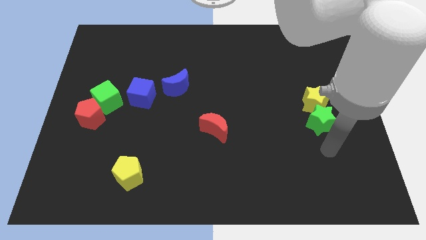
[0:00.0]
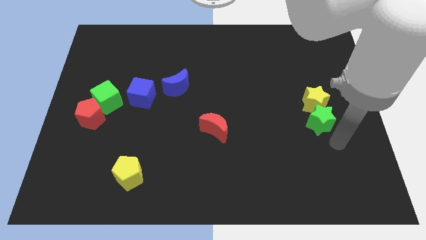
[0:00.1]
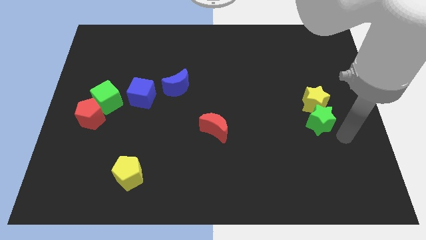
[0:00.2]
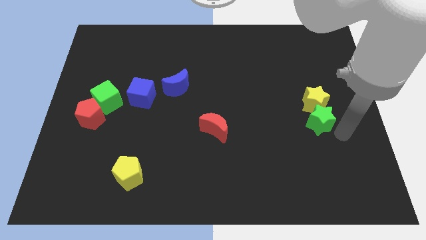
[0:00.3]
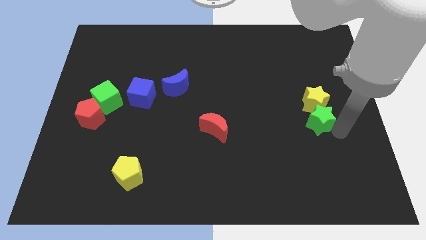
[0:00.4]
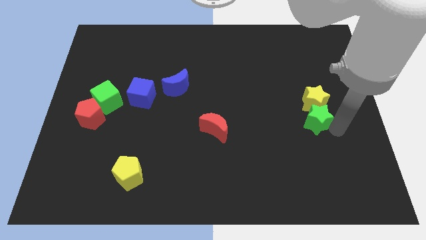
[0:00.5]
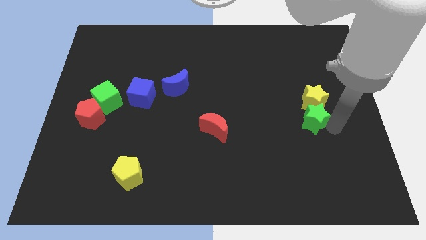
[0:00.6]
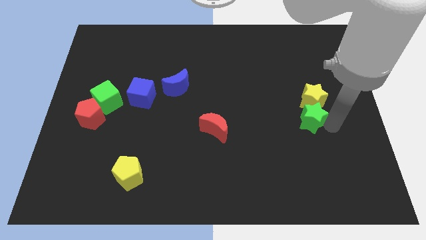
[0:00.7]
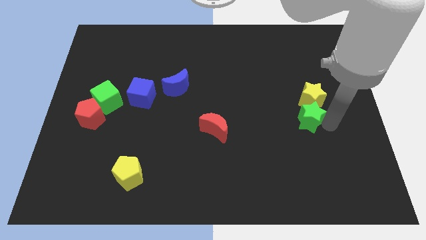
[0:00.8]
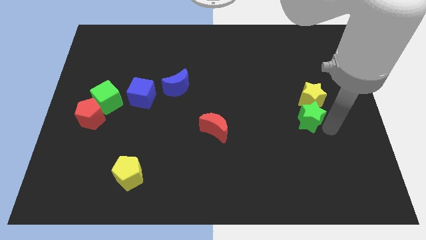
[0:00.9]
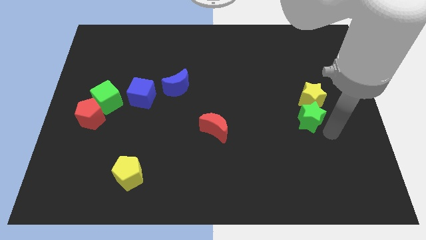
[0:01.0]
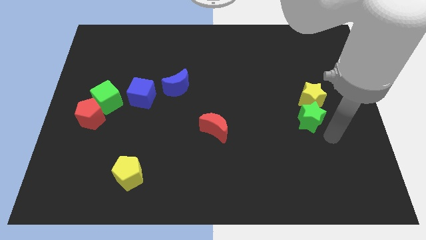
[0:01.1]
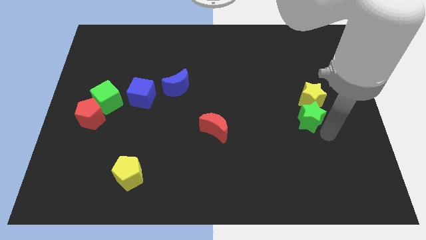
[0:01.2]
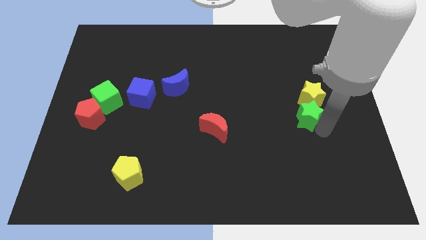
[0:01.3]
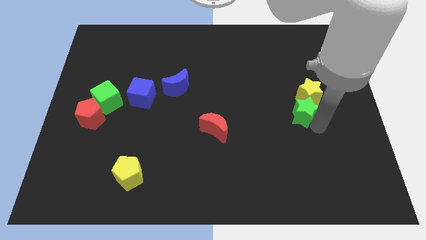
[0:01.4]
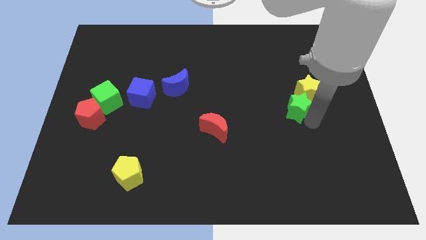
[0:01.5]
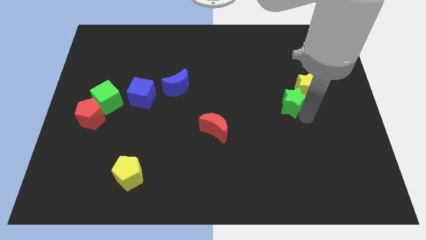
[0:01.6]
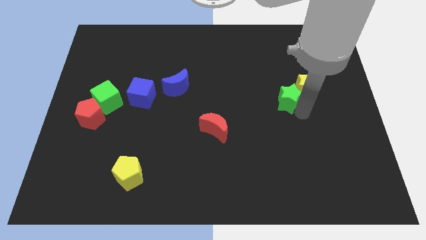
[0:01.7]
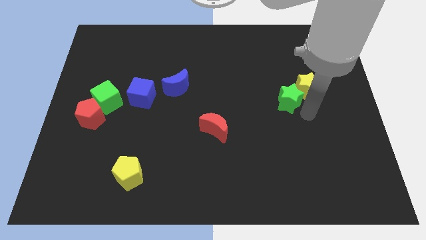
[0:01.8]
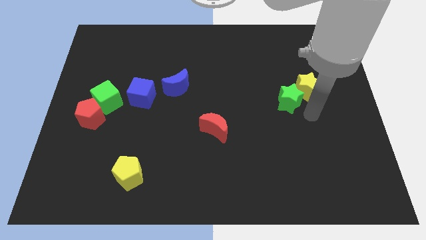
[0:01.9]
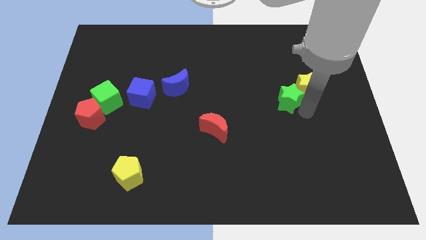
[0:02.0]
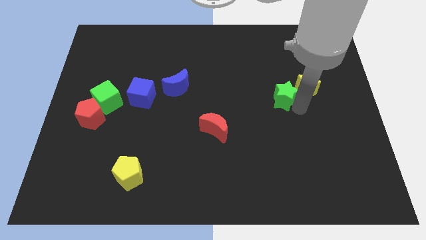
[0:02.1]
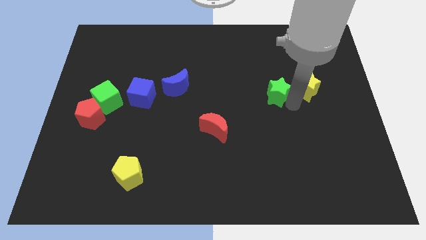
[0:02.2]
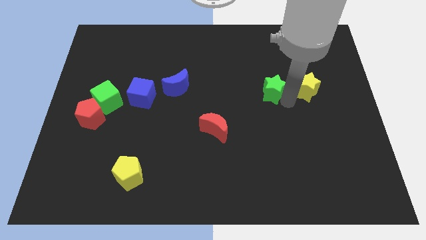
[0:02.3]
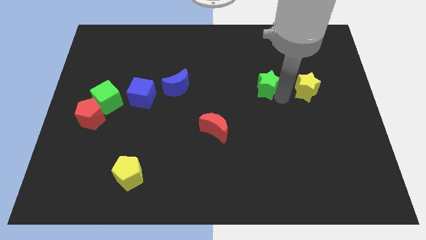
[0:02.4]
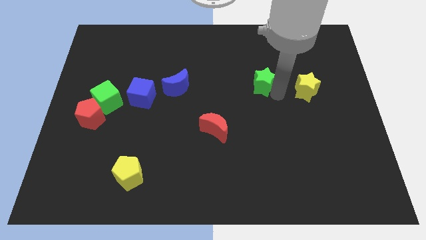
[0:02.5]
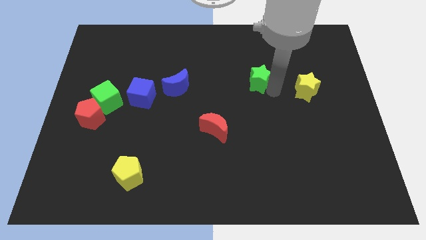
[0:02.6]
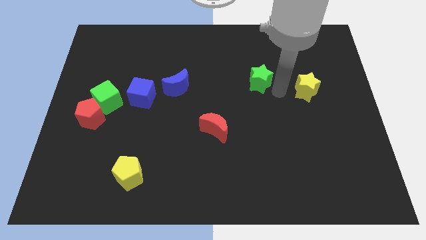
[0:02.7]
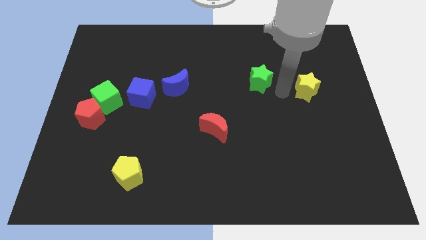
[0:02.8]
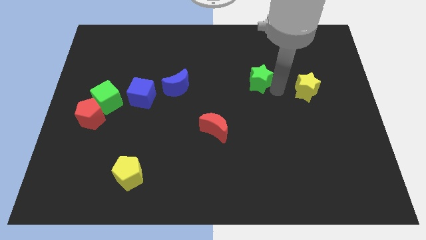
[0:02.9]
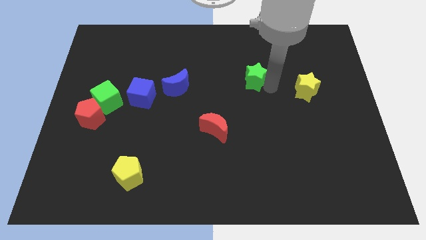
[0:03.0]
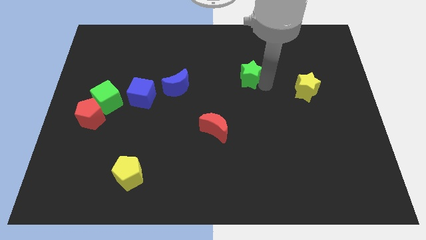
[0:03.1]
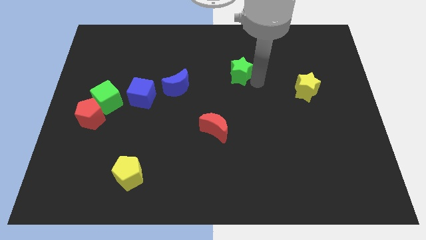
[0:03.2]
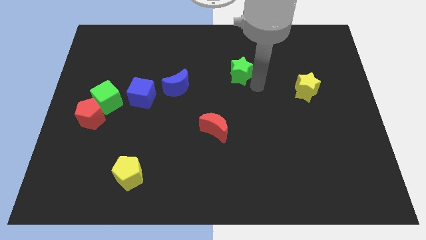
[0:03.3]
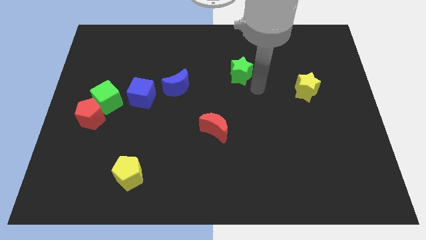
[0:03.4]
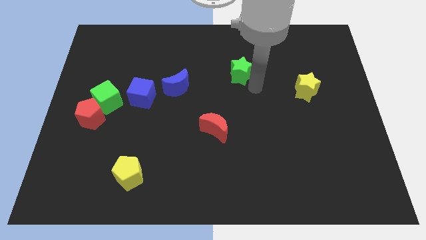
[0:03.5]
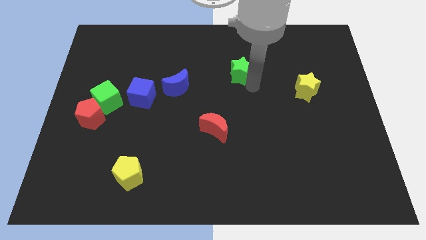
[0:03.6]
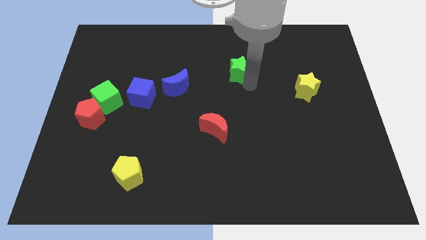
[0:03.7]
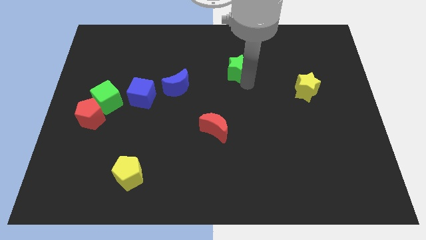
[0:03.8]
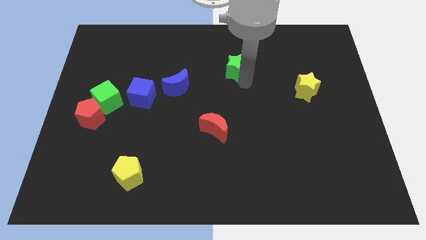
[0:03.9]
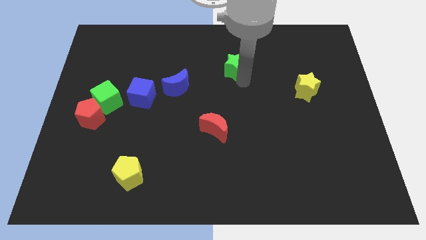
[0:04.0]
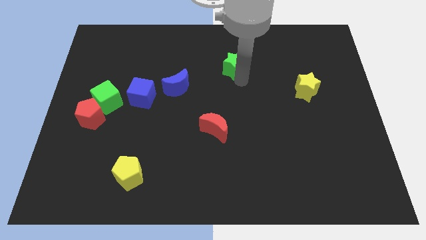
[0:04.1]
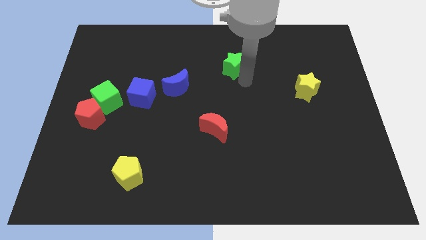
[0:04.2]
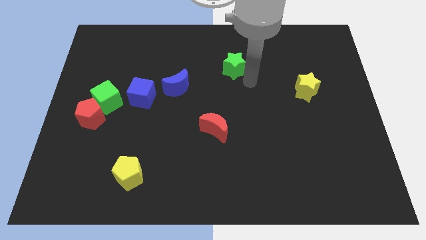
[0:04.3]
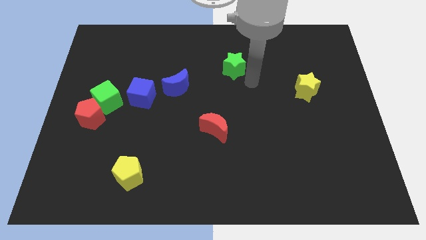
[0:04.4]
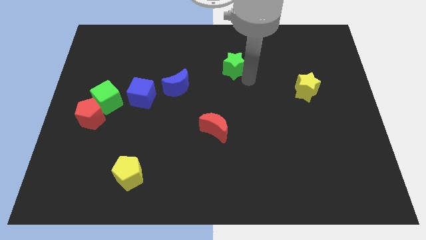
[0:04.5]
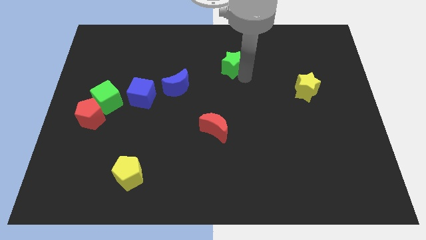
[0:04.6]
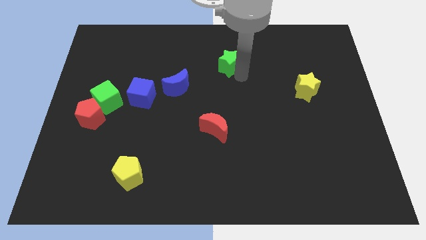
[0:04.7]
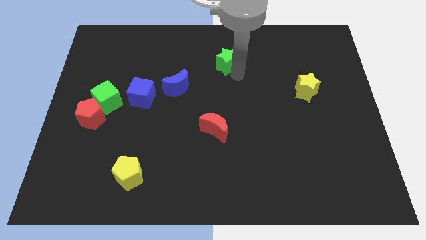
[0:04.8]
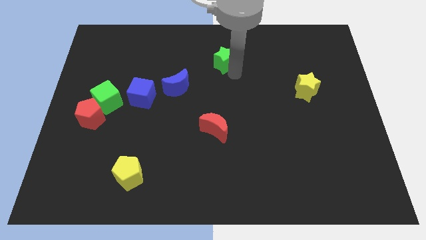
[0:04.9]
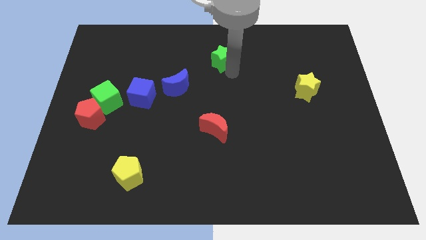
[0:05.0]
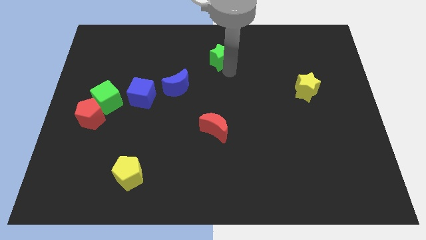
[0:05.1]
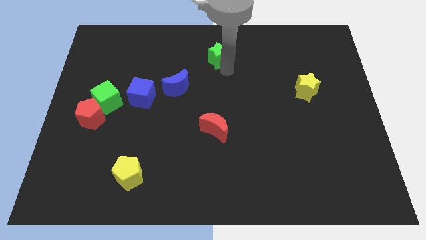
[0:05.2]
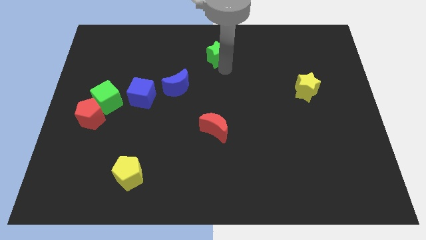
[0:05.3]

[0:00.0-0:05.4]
slide the green star to the top

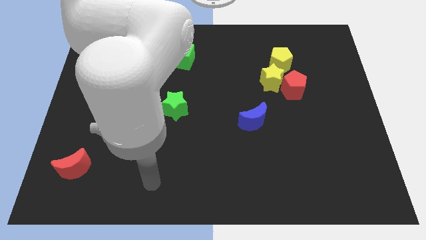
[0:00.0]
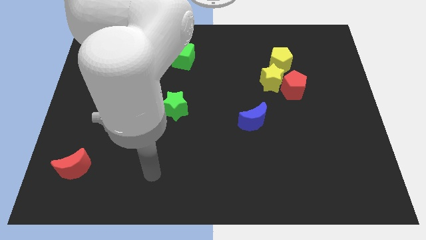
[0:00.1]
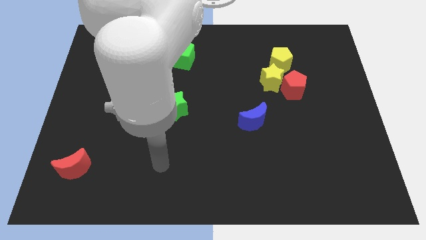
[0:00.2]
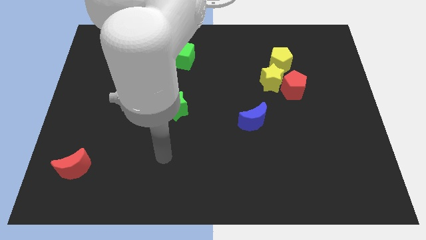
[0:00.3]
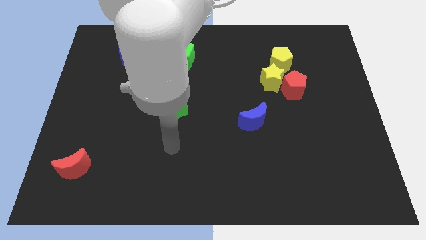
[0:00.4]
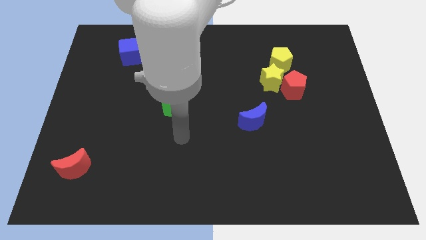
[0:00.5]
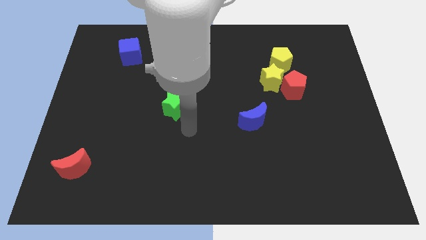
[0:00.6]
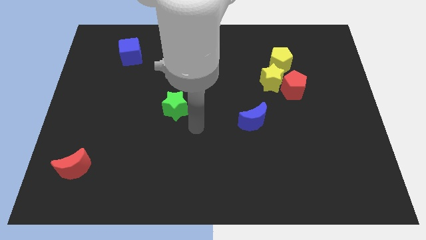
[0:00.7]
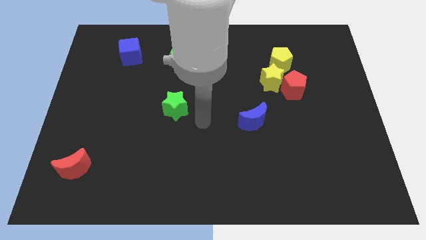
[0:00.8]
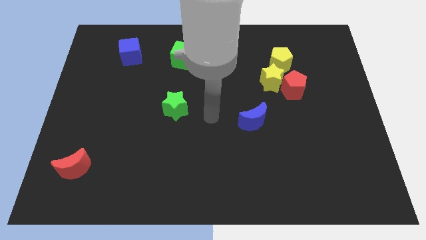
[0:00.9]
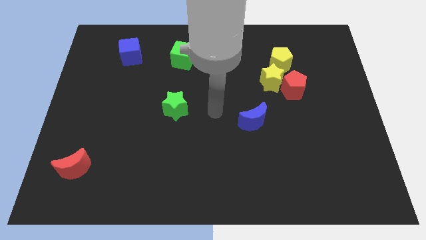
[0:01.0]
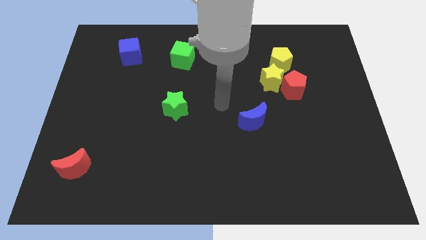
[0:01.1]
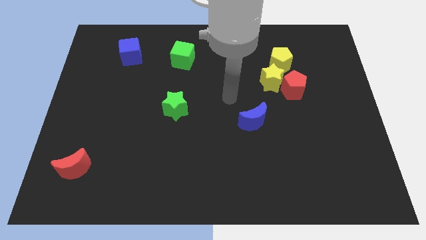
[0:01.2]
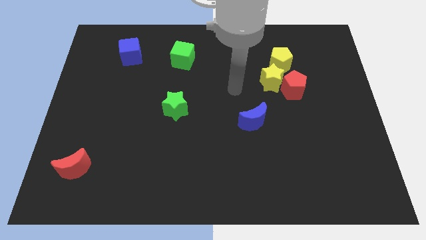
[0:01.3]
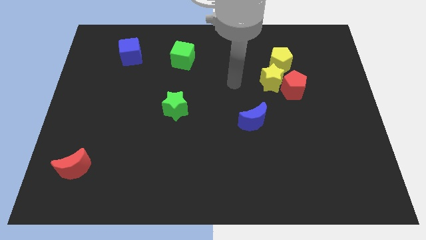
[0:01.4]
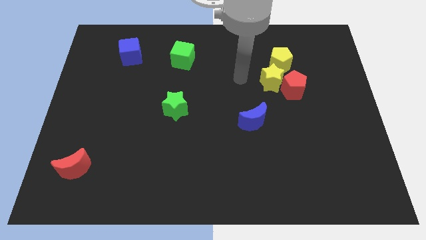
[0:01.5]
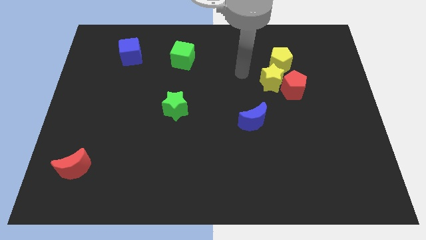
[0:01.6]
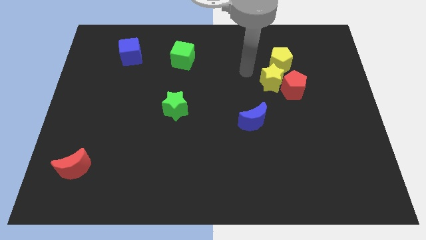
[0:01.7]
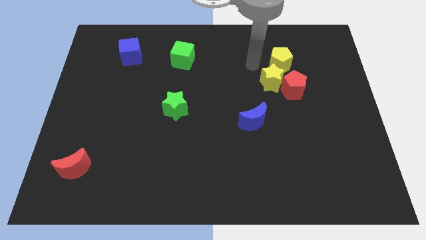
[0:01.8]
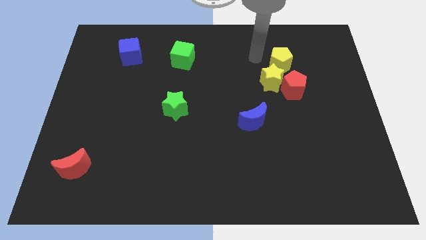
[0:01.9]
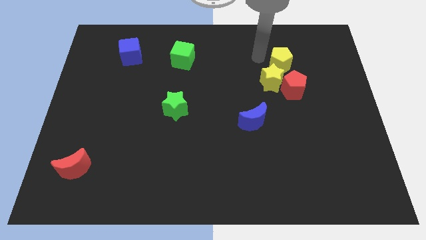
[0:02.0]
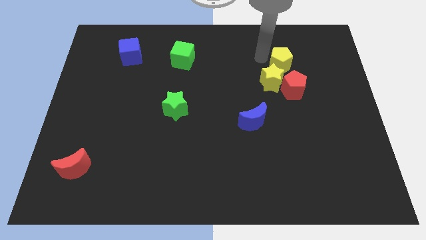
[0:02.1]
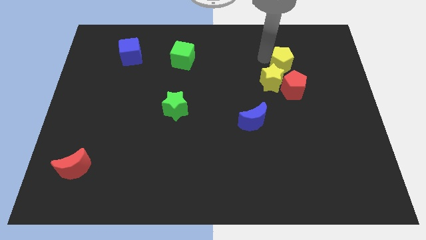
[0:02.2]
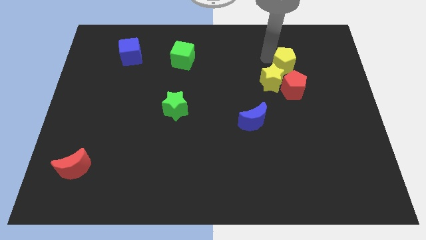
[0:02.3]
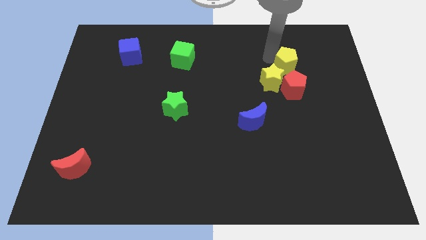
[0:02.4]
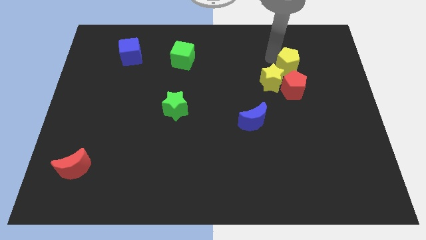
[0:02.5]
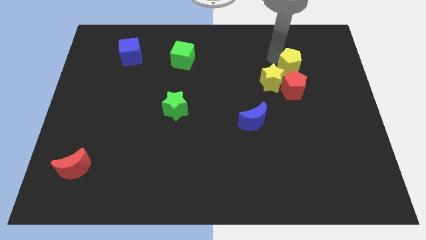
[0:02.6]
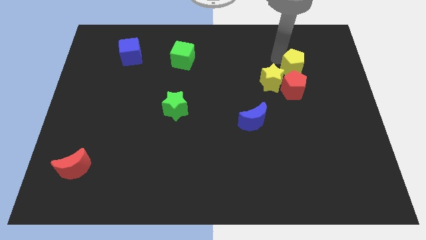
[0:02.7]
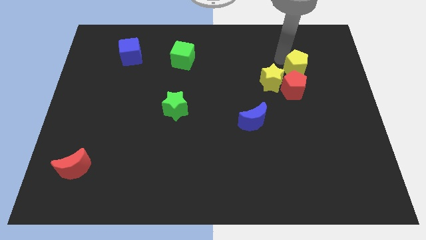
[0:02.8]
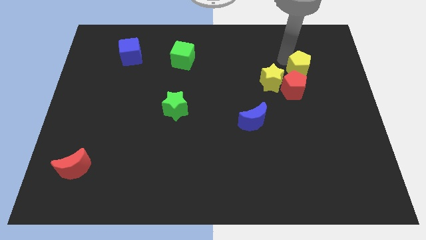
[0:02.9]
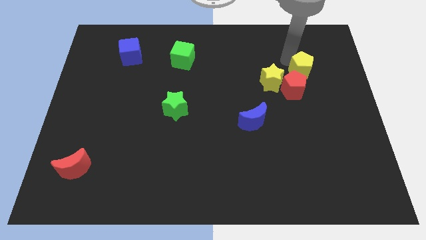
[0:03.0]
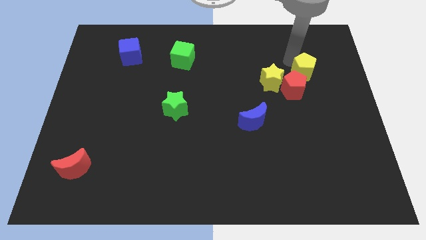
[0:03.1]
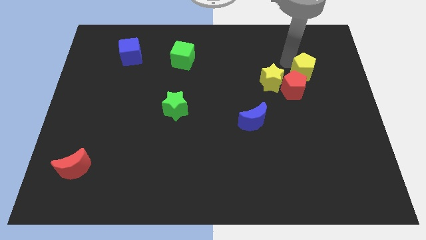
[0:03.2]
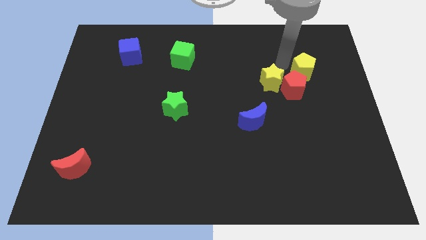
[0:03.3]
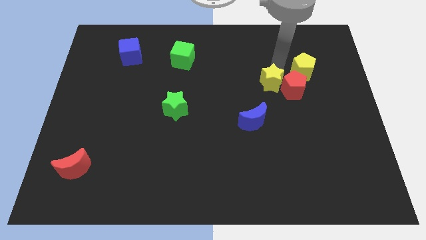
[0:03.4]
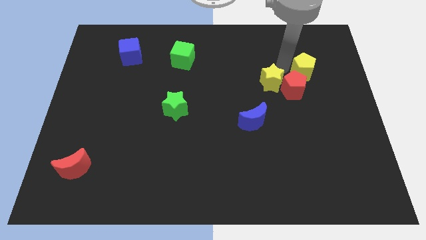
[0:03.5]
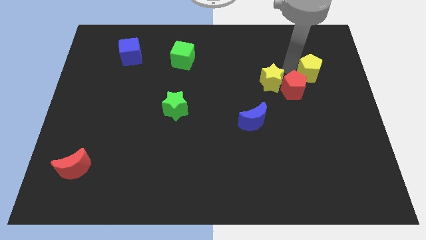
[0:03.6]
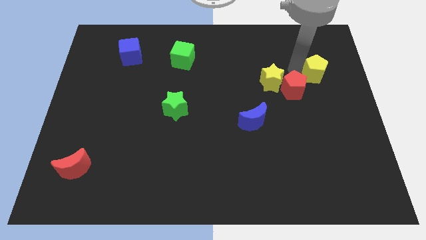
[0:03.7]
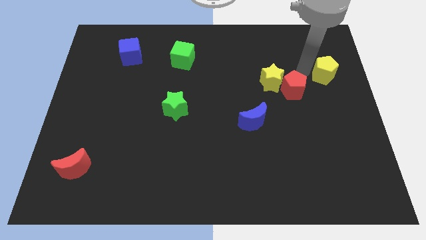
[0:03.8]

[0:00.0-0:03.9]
slide the yellow pentagon to the center right
